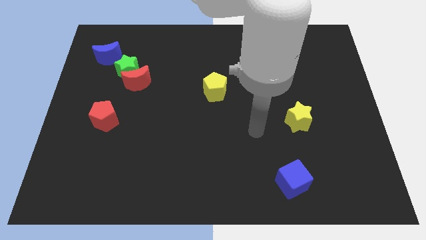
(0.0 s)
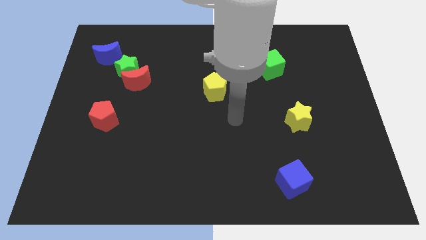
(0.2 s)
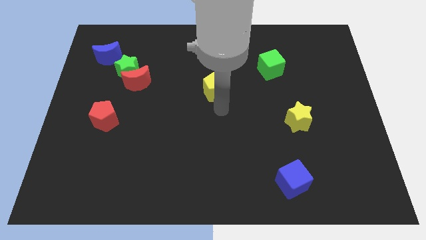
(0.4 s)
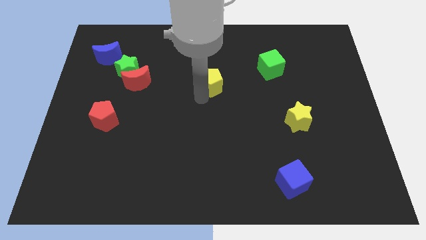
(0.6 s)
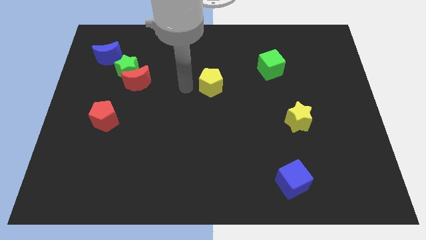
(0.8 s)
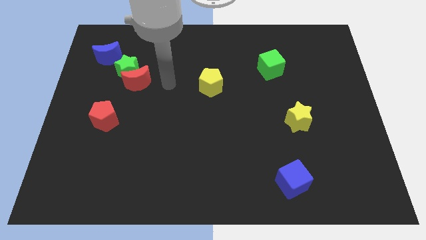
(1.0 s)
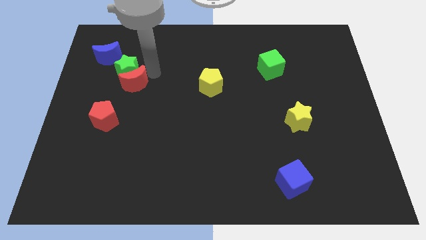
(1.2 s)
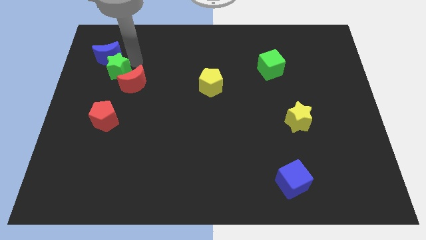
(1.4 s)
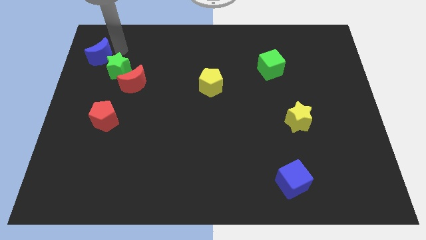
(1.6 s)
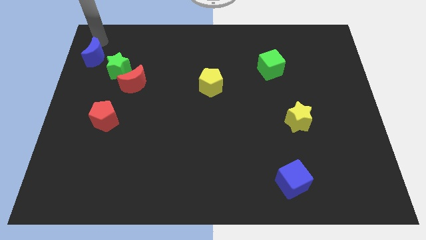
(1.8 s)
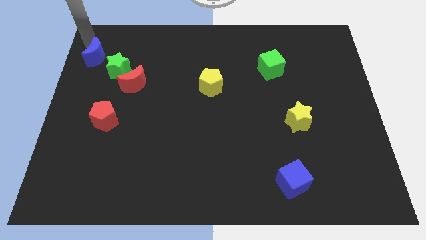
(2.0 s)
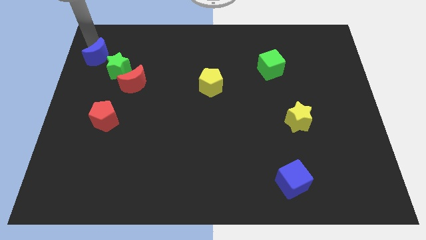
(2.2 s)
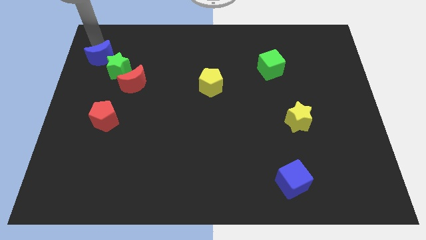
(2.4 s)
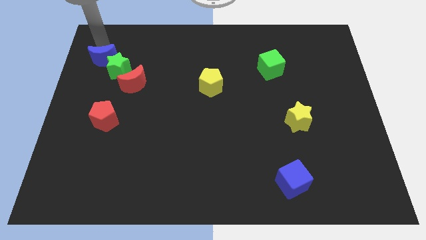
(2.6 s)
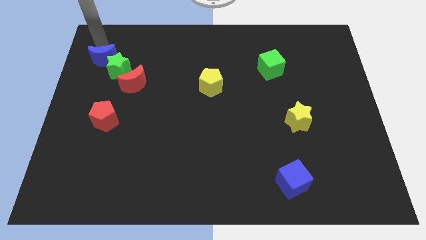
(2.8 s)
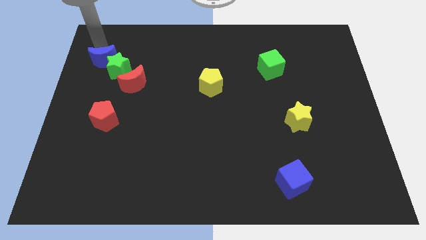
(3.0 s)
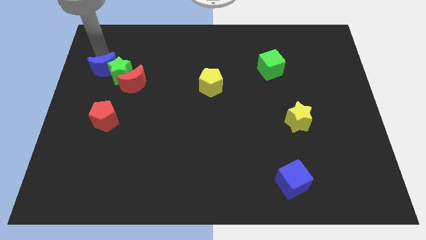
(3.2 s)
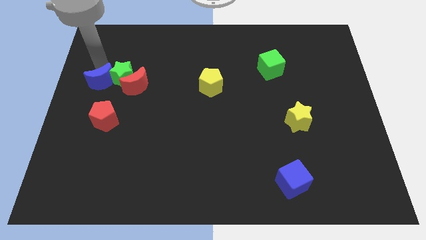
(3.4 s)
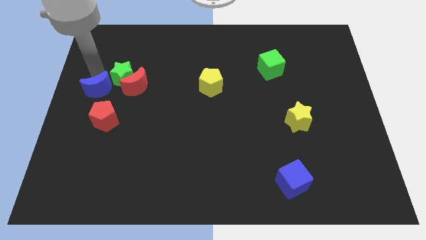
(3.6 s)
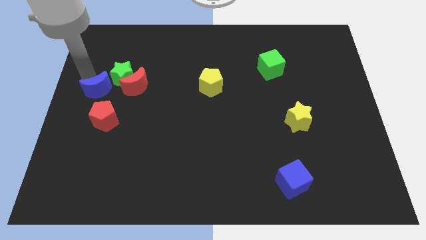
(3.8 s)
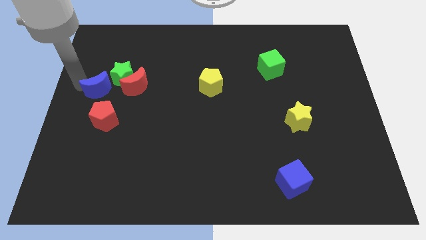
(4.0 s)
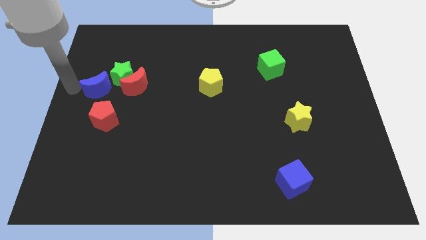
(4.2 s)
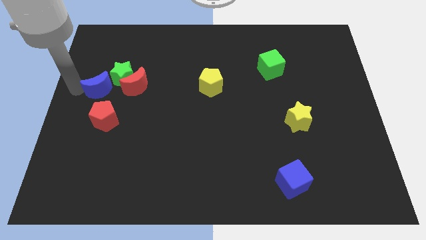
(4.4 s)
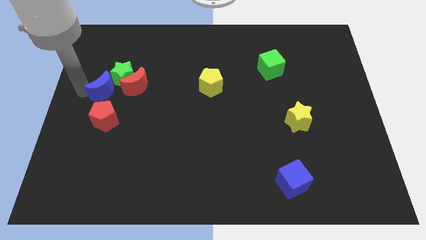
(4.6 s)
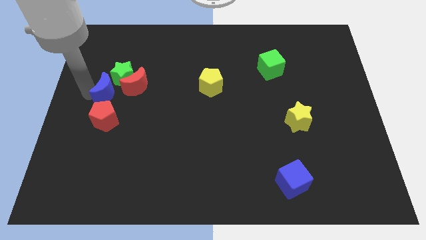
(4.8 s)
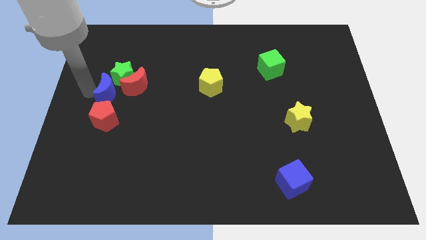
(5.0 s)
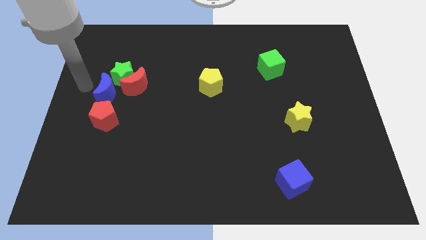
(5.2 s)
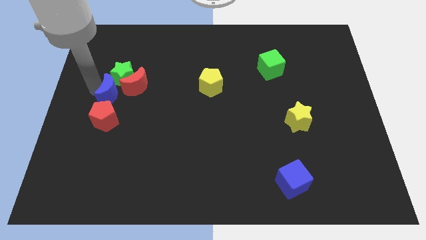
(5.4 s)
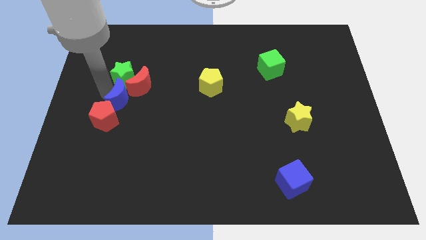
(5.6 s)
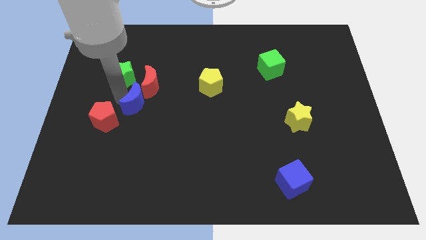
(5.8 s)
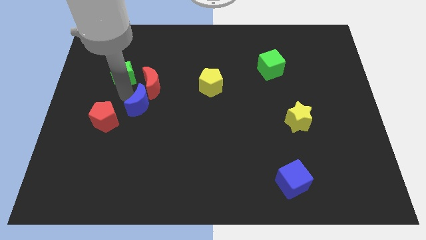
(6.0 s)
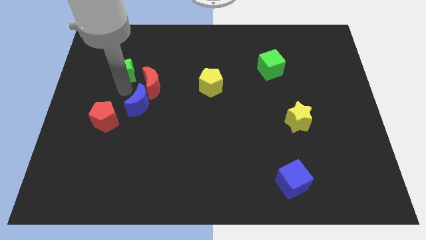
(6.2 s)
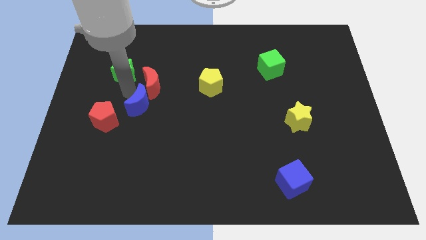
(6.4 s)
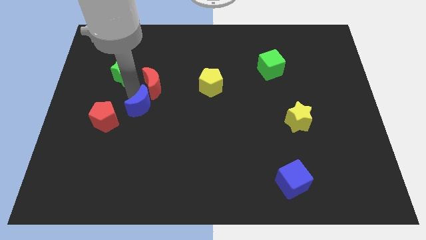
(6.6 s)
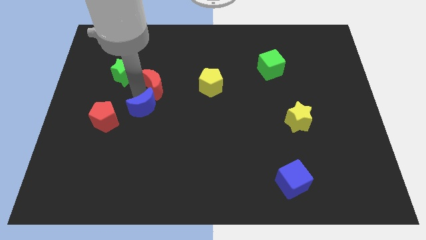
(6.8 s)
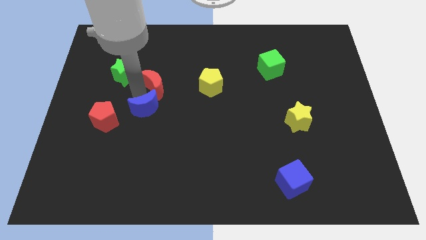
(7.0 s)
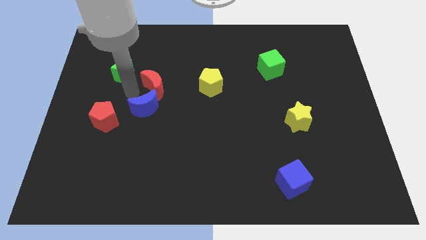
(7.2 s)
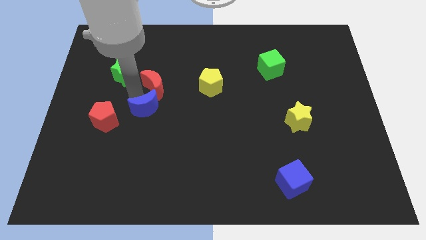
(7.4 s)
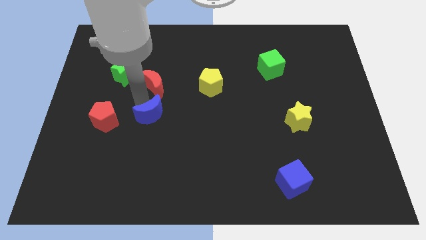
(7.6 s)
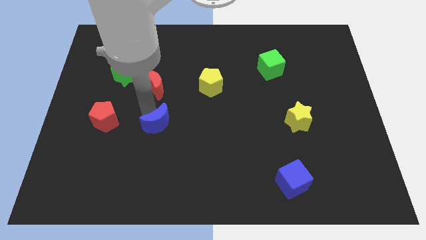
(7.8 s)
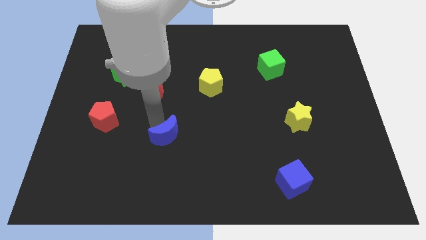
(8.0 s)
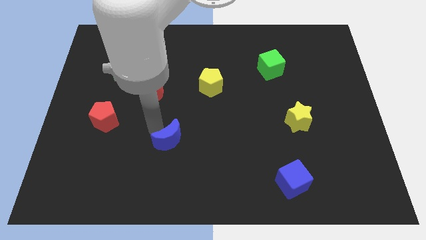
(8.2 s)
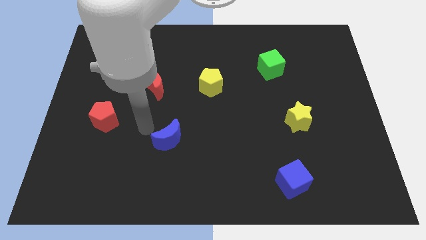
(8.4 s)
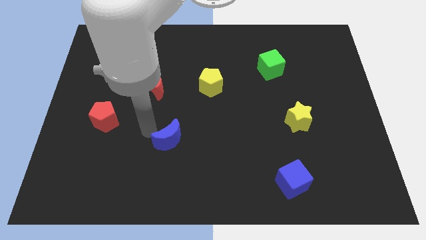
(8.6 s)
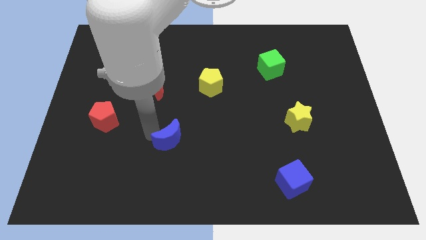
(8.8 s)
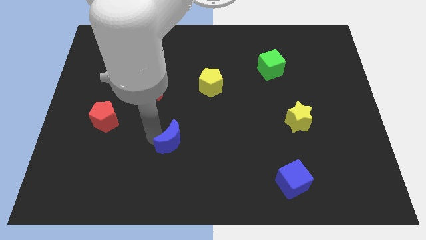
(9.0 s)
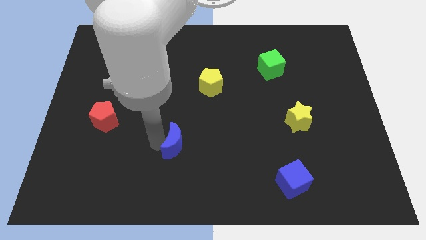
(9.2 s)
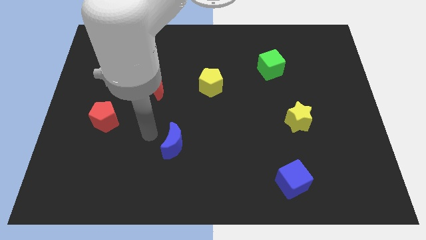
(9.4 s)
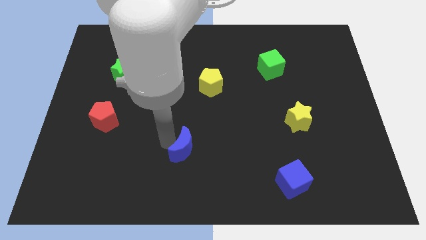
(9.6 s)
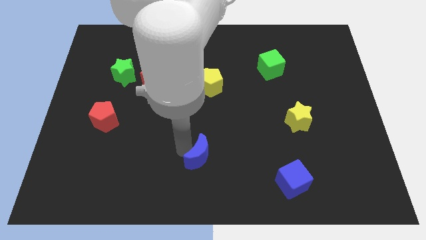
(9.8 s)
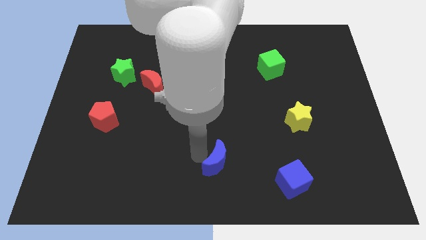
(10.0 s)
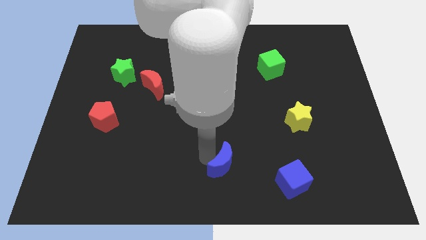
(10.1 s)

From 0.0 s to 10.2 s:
put the blue moon to the left side of the blue cube

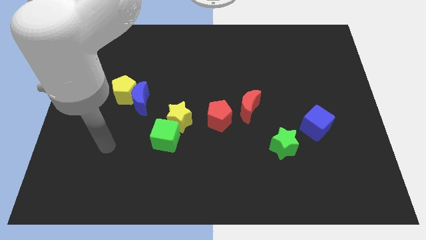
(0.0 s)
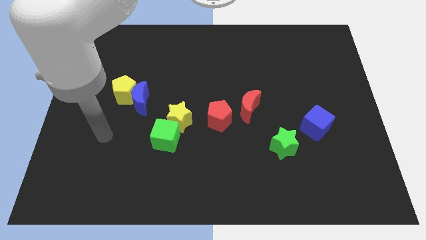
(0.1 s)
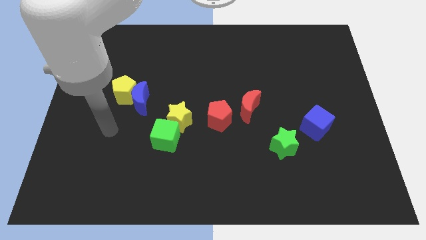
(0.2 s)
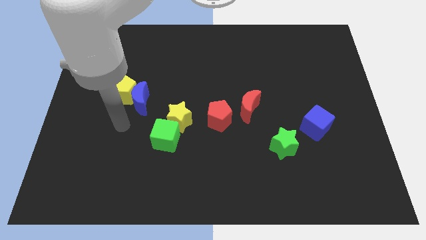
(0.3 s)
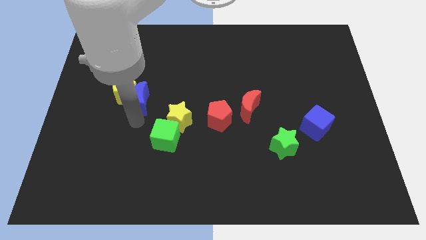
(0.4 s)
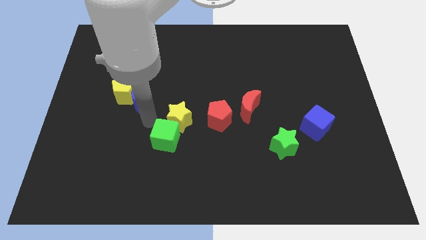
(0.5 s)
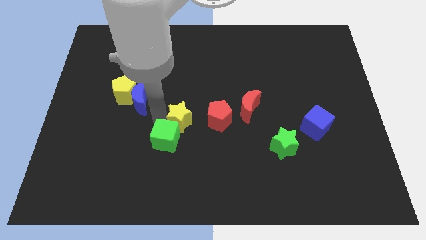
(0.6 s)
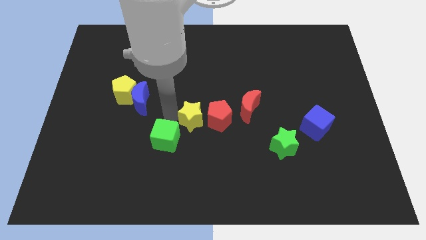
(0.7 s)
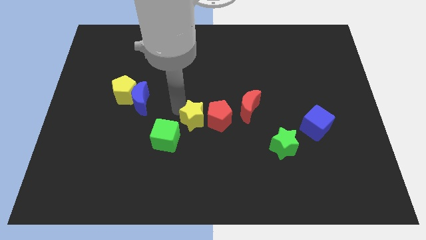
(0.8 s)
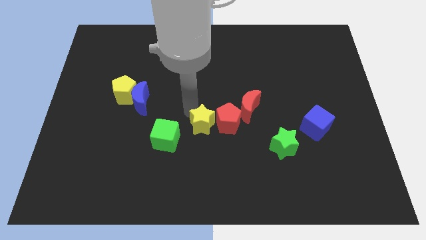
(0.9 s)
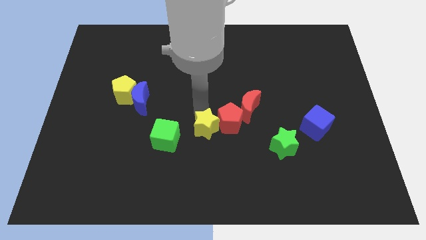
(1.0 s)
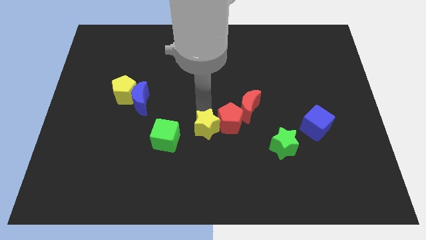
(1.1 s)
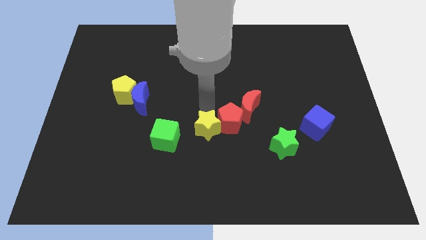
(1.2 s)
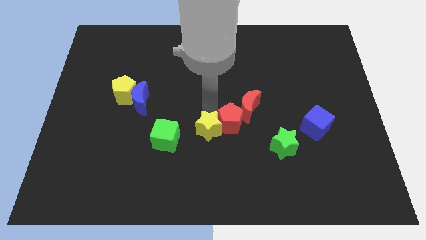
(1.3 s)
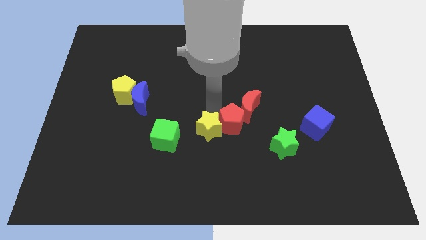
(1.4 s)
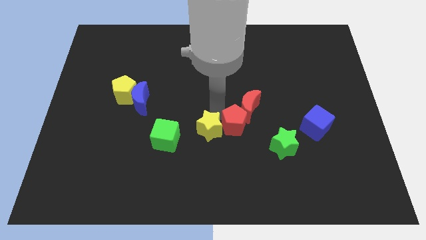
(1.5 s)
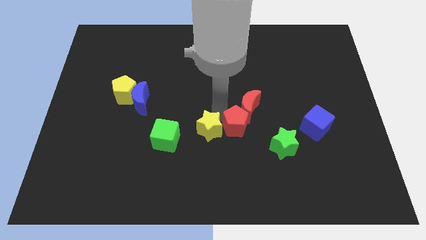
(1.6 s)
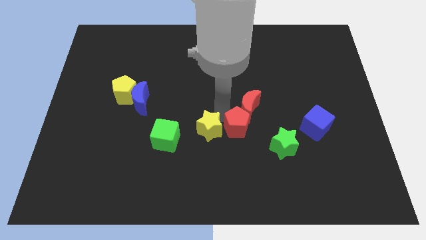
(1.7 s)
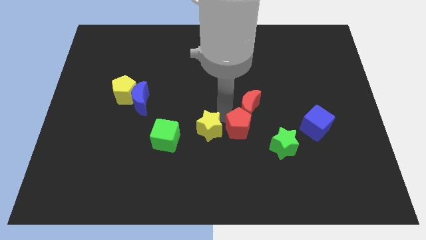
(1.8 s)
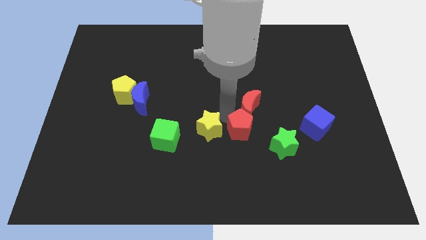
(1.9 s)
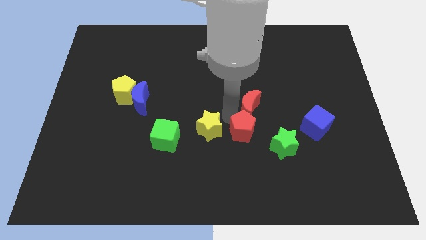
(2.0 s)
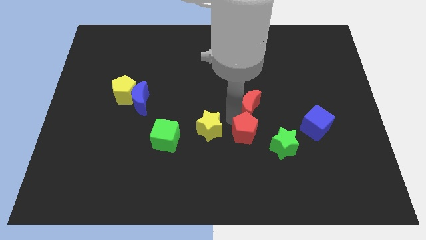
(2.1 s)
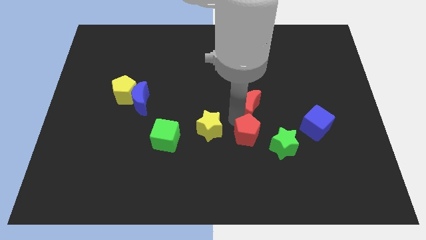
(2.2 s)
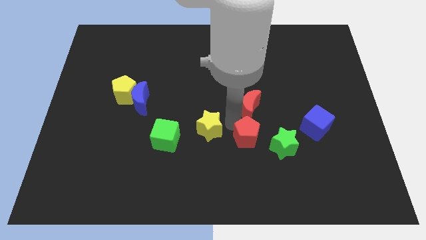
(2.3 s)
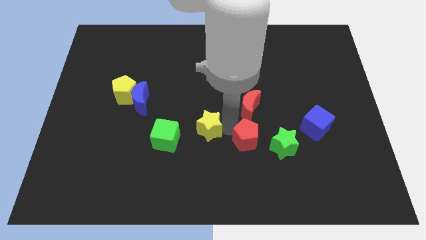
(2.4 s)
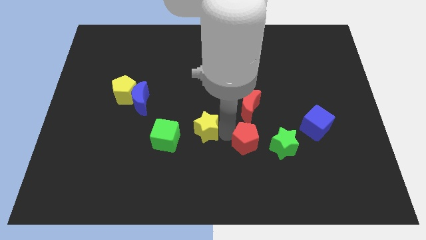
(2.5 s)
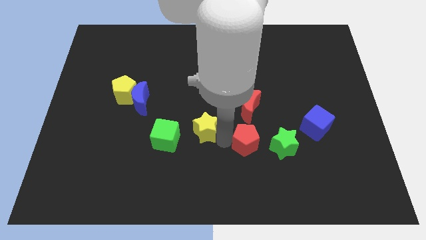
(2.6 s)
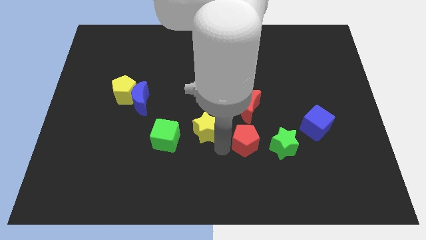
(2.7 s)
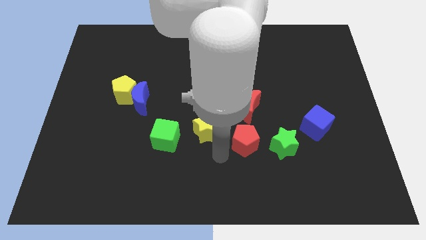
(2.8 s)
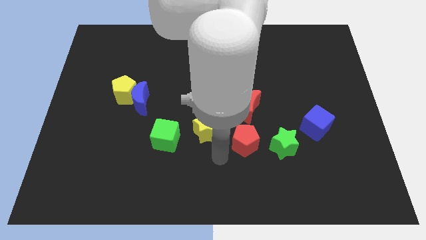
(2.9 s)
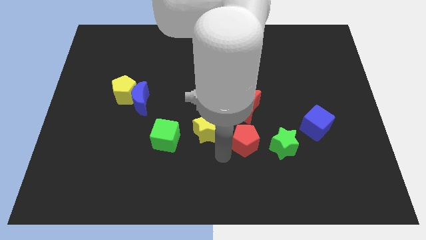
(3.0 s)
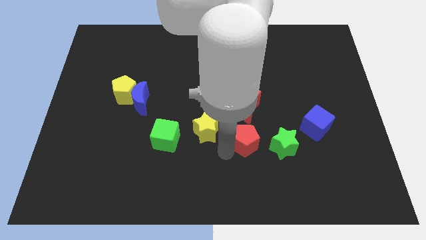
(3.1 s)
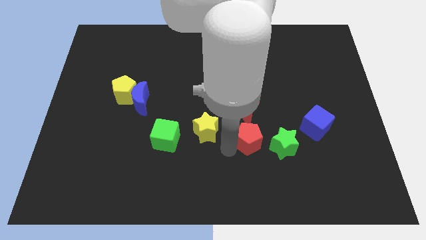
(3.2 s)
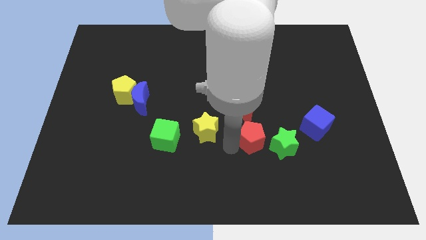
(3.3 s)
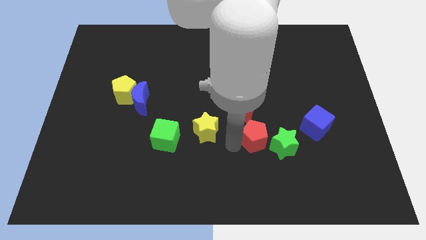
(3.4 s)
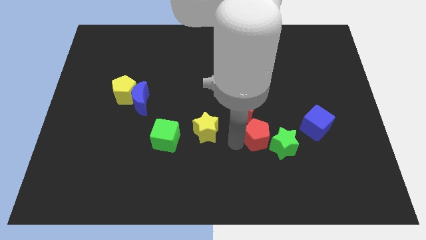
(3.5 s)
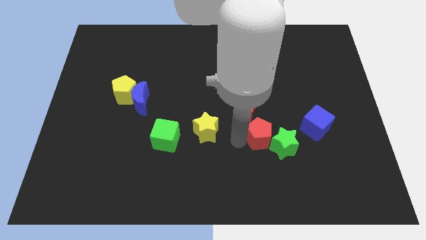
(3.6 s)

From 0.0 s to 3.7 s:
move the red pentagon to the bottom right of the red moon
